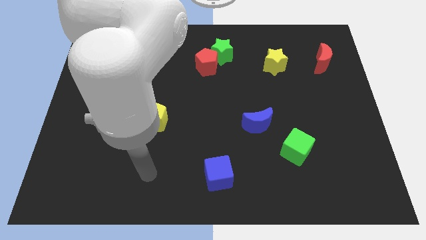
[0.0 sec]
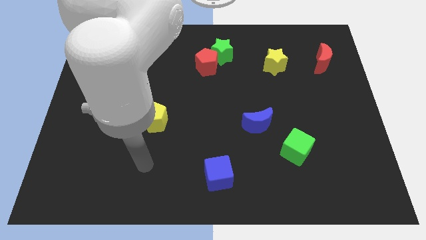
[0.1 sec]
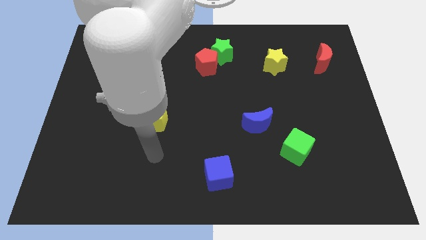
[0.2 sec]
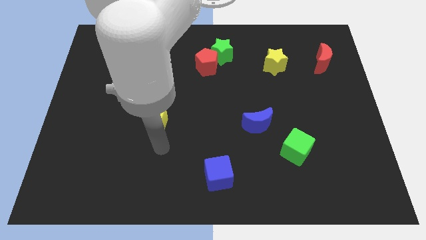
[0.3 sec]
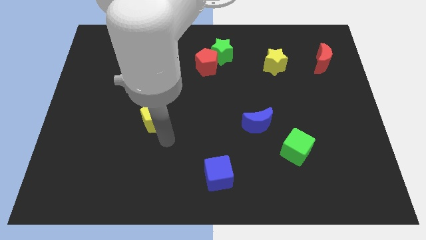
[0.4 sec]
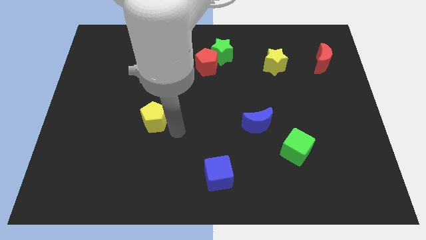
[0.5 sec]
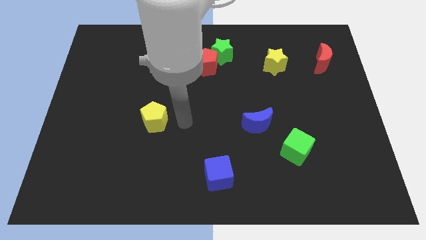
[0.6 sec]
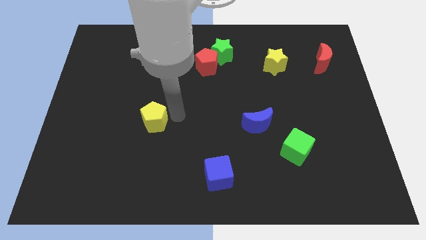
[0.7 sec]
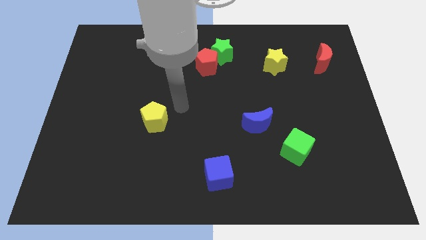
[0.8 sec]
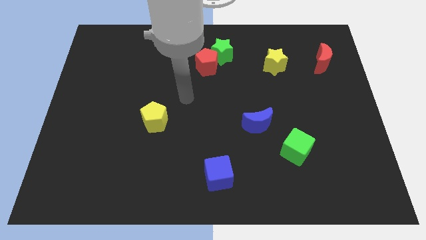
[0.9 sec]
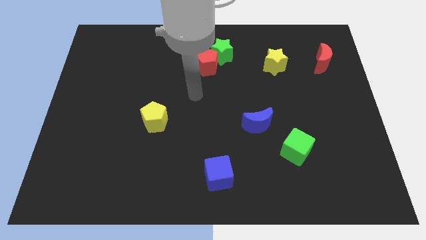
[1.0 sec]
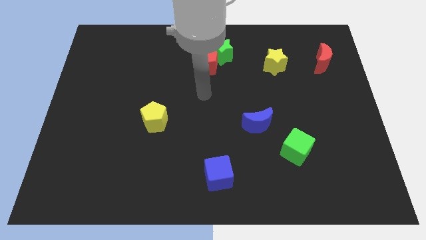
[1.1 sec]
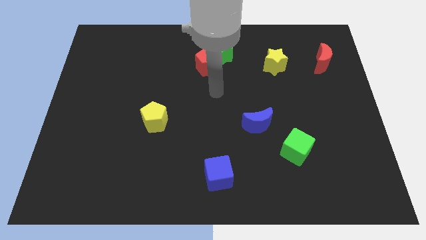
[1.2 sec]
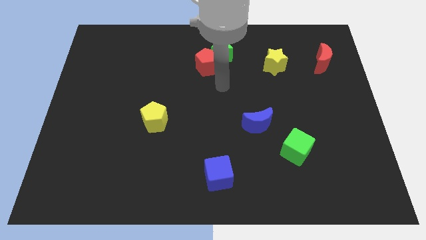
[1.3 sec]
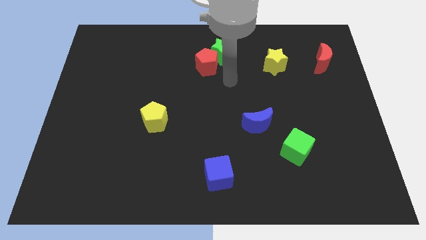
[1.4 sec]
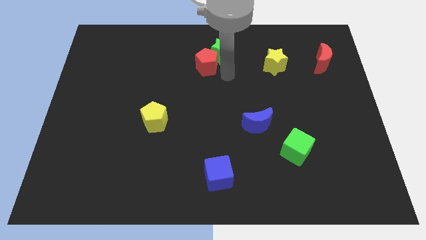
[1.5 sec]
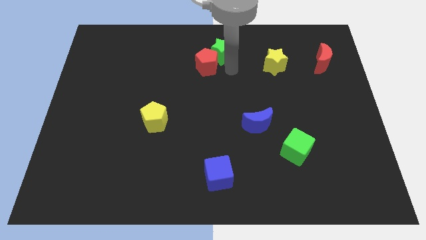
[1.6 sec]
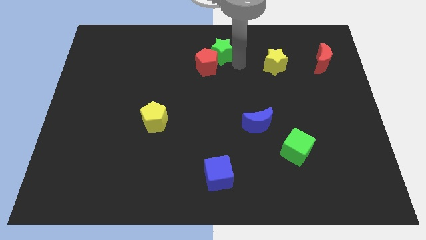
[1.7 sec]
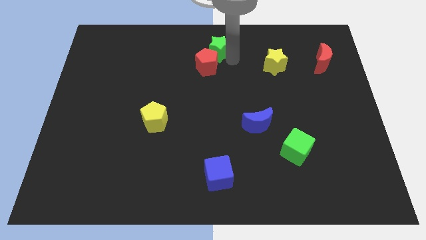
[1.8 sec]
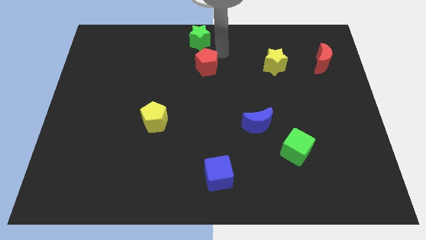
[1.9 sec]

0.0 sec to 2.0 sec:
move the red pentagon away from the green star

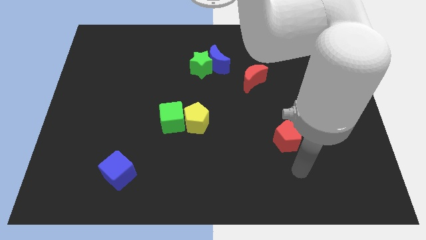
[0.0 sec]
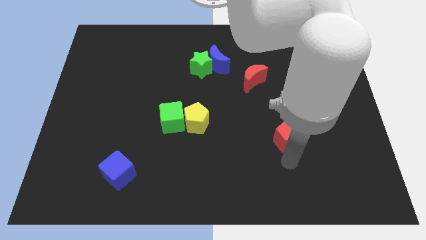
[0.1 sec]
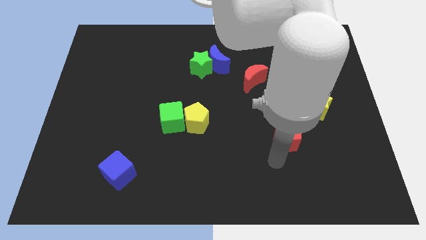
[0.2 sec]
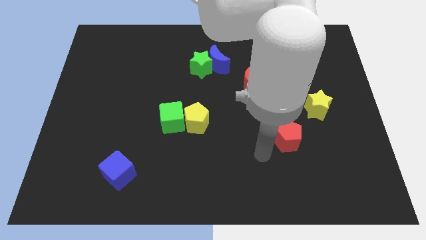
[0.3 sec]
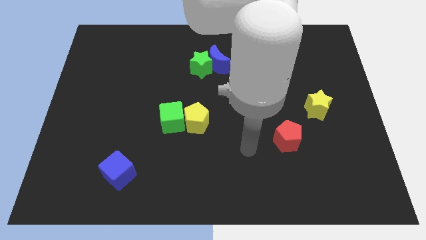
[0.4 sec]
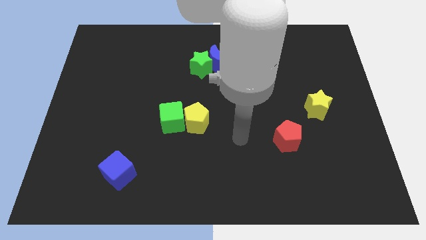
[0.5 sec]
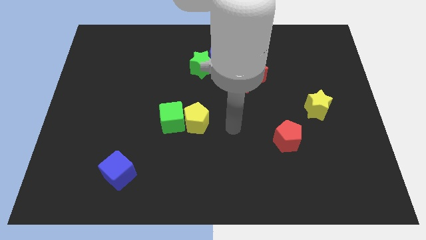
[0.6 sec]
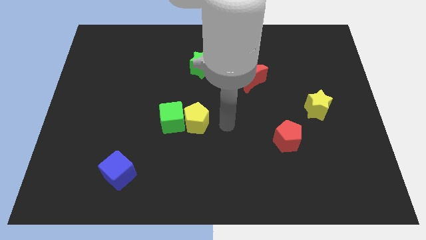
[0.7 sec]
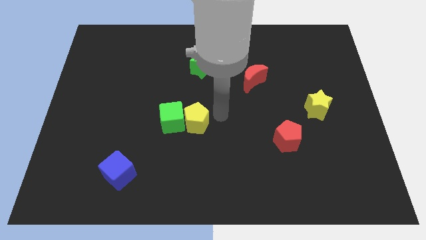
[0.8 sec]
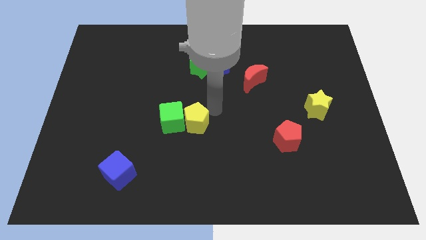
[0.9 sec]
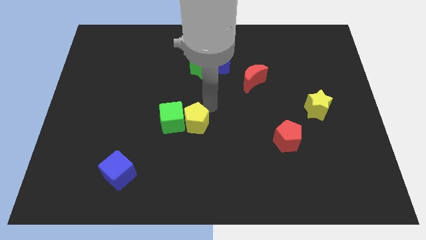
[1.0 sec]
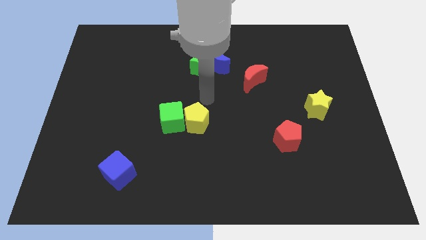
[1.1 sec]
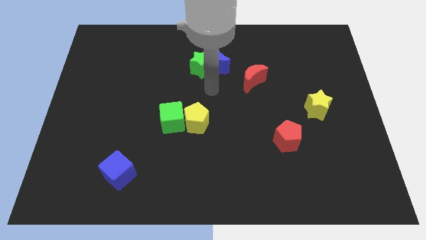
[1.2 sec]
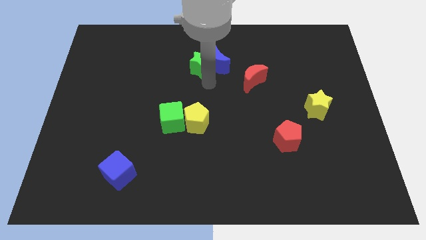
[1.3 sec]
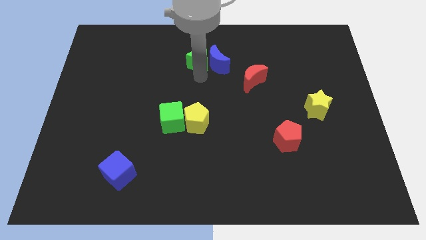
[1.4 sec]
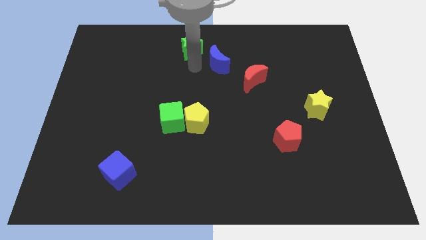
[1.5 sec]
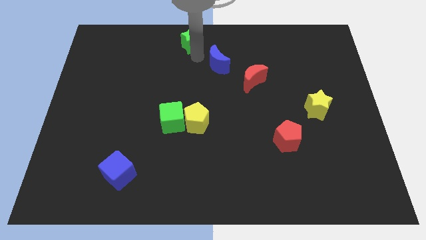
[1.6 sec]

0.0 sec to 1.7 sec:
pull the blue moon apart from the green star

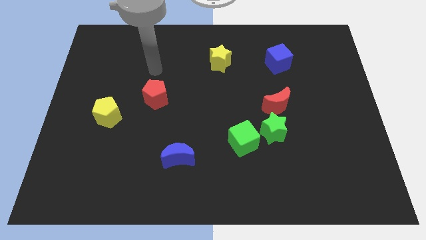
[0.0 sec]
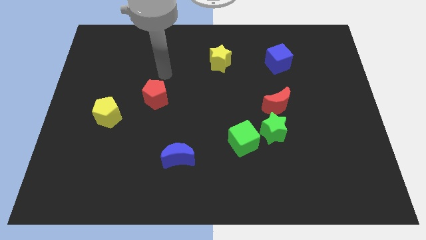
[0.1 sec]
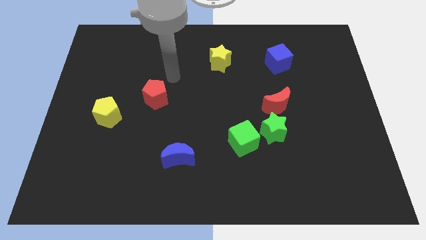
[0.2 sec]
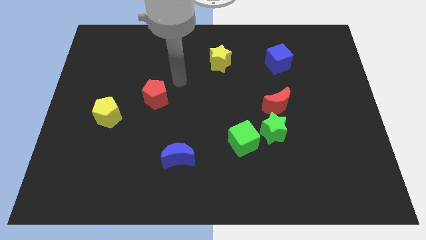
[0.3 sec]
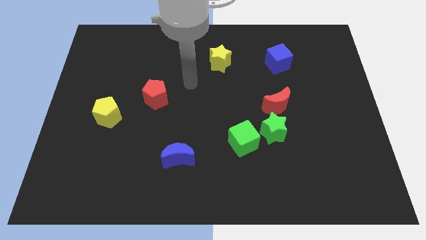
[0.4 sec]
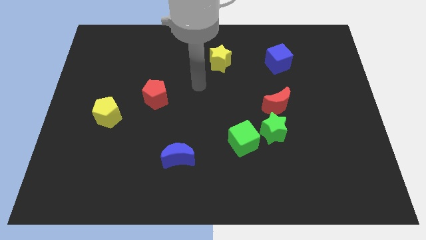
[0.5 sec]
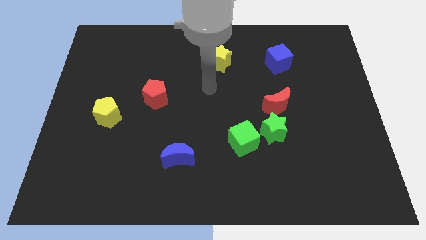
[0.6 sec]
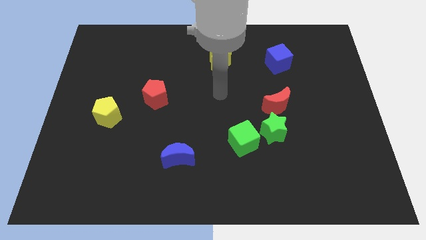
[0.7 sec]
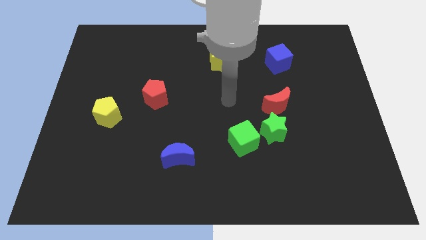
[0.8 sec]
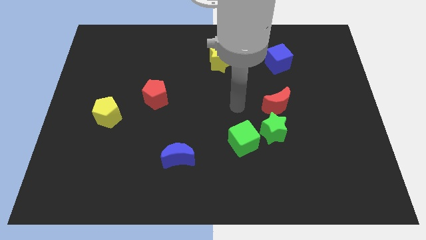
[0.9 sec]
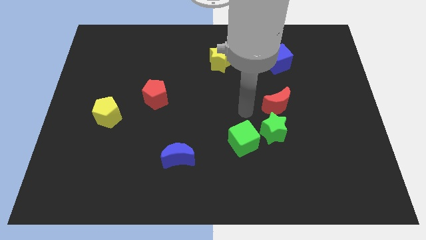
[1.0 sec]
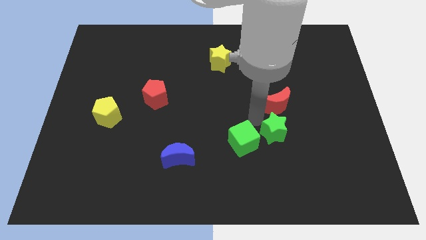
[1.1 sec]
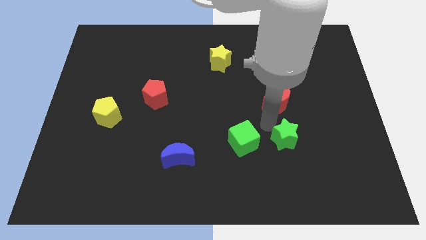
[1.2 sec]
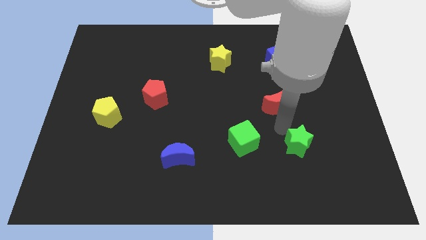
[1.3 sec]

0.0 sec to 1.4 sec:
separate the red moon from the green star

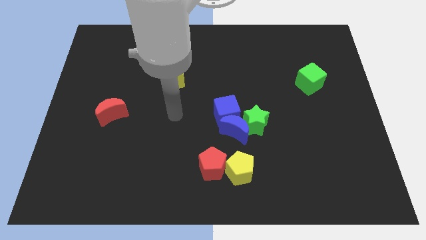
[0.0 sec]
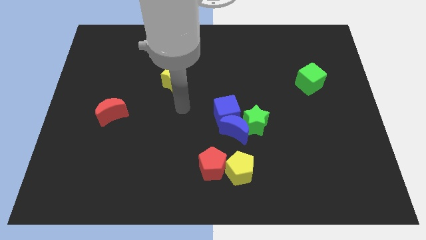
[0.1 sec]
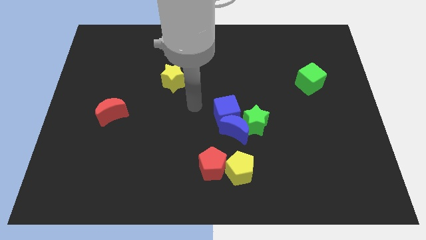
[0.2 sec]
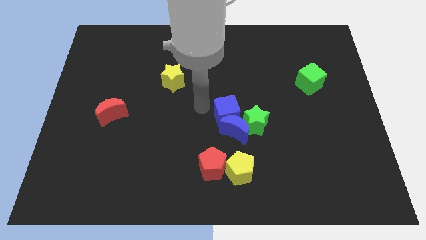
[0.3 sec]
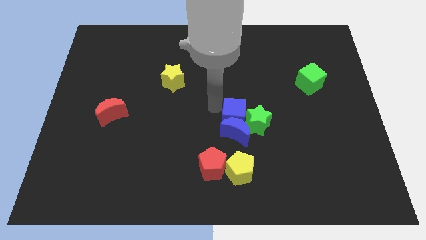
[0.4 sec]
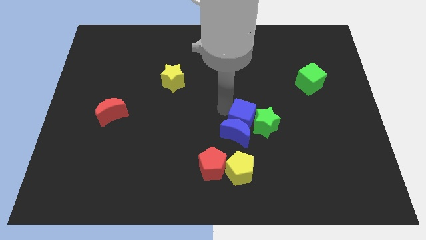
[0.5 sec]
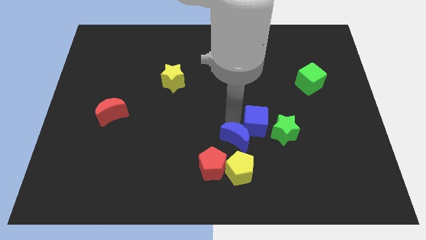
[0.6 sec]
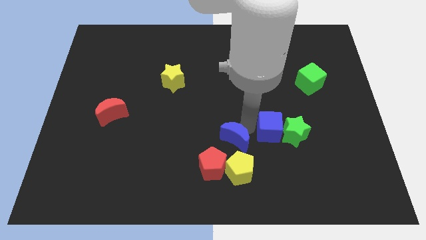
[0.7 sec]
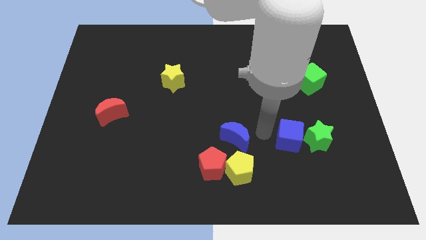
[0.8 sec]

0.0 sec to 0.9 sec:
separate the green star from the blue moon and blue cube

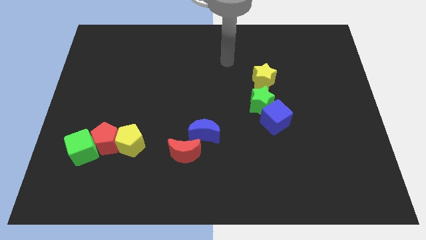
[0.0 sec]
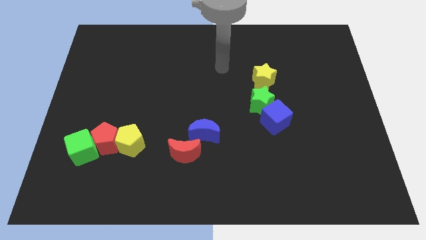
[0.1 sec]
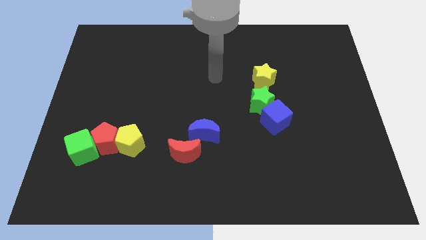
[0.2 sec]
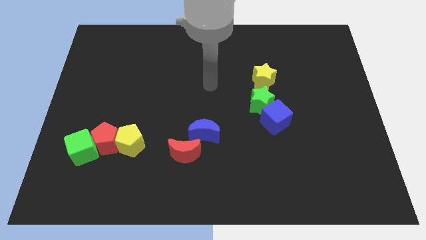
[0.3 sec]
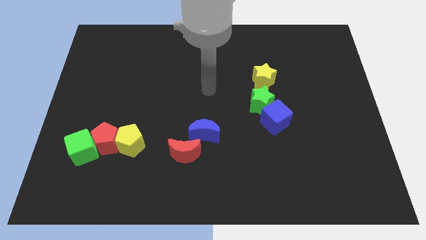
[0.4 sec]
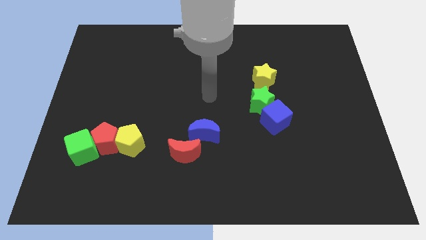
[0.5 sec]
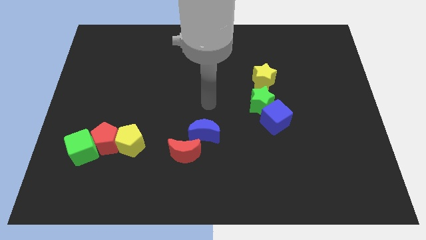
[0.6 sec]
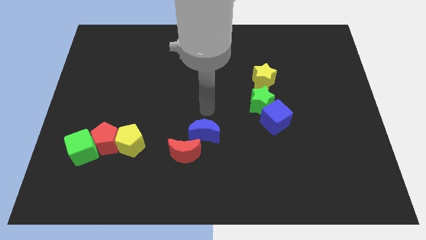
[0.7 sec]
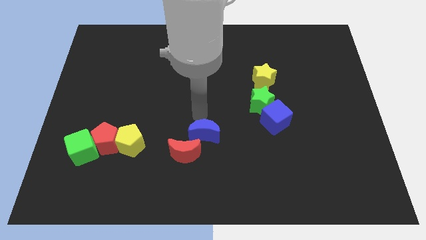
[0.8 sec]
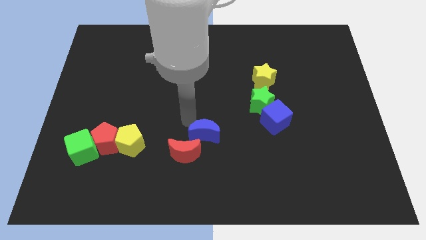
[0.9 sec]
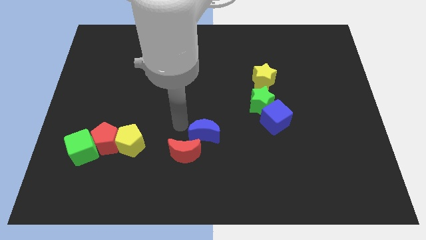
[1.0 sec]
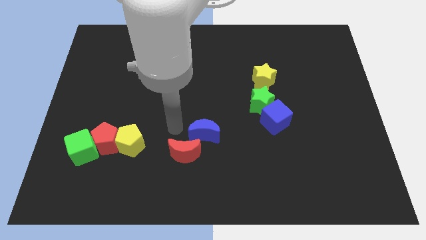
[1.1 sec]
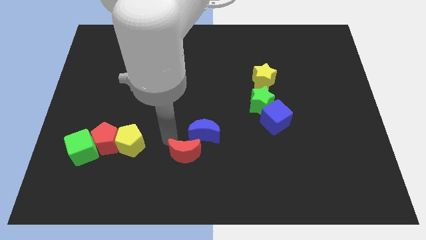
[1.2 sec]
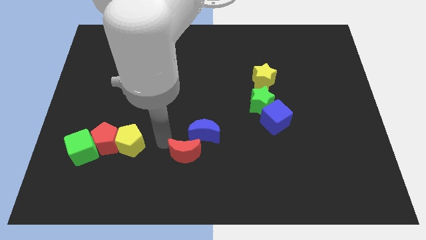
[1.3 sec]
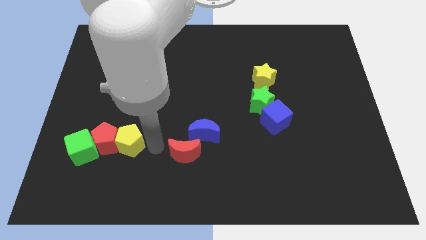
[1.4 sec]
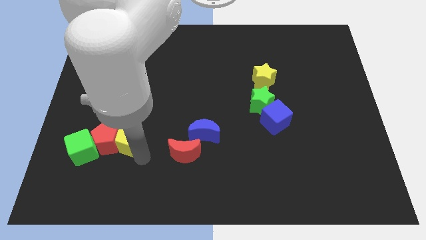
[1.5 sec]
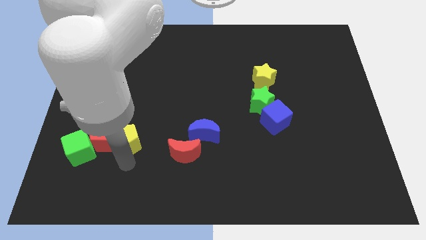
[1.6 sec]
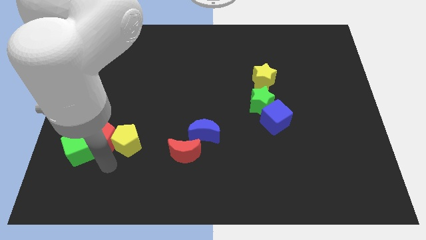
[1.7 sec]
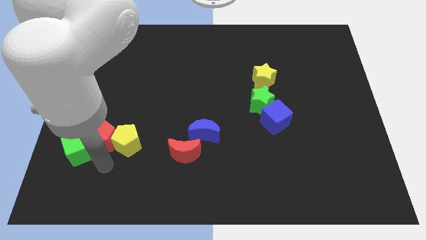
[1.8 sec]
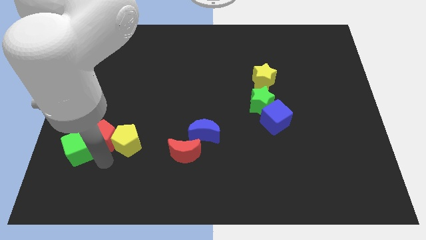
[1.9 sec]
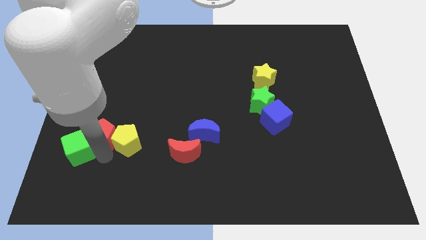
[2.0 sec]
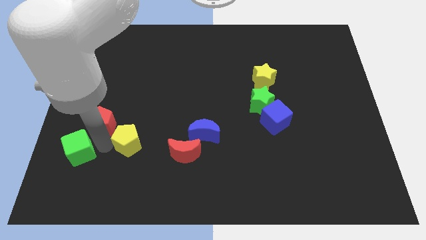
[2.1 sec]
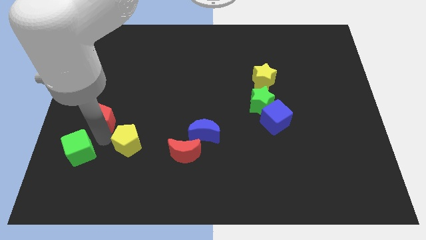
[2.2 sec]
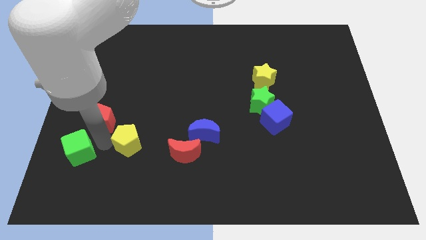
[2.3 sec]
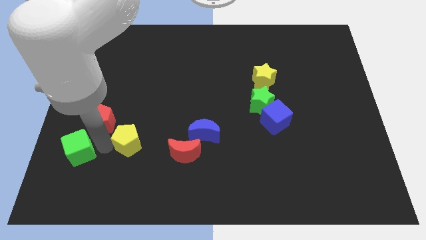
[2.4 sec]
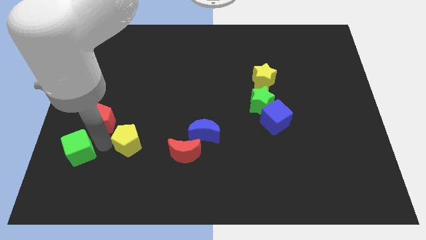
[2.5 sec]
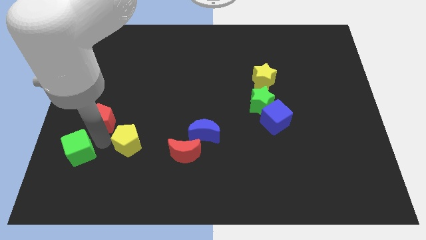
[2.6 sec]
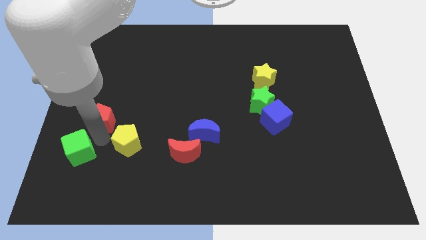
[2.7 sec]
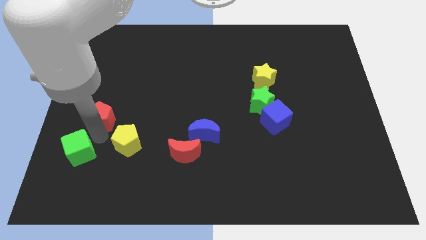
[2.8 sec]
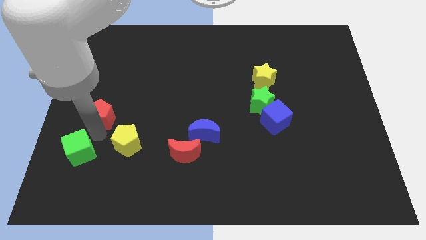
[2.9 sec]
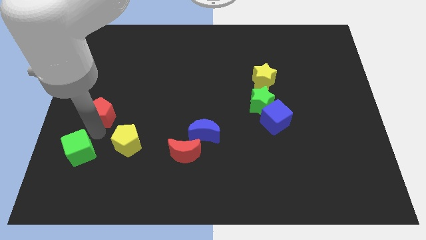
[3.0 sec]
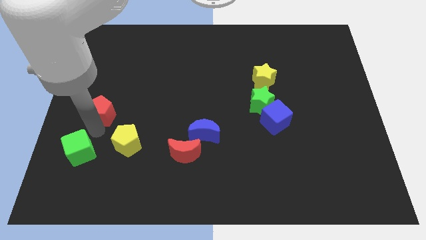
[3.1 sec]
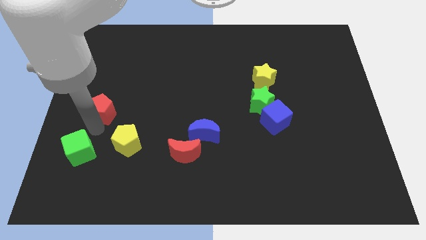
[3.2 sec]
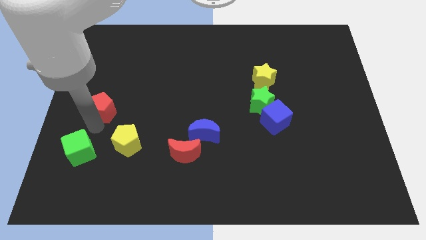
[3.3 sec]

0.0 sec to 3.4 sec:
separate the red pentagon from the green cube and yellow pentagon
